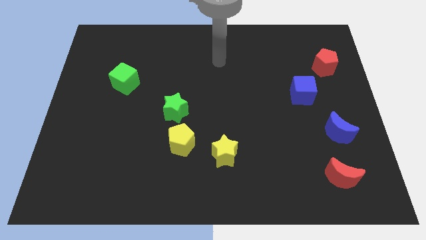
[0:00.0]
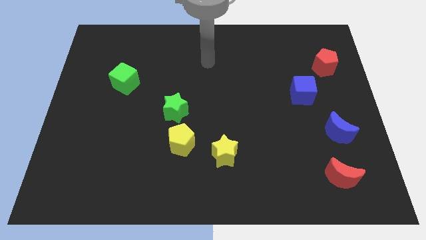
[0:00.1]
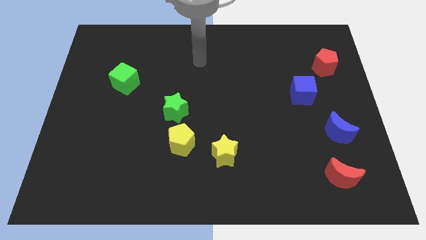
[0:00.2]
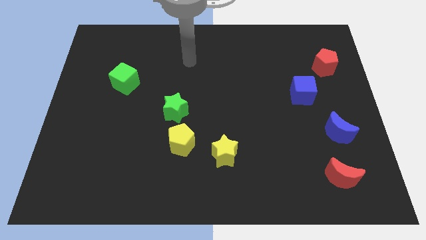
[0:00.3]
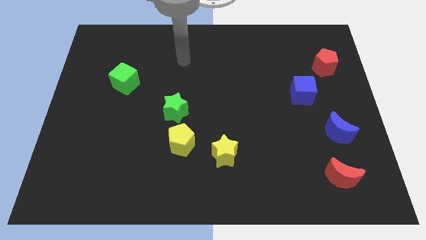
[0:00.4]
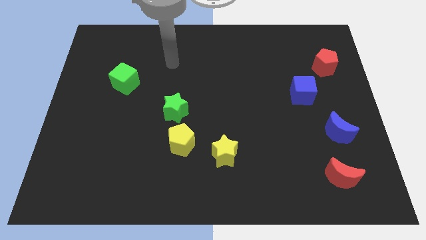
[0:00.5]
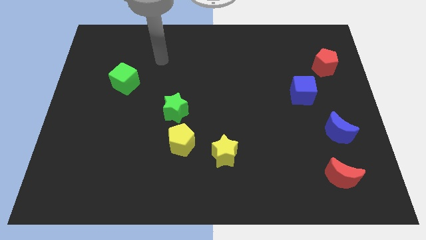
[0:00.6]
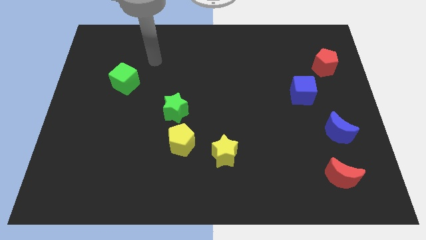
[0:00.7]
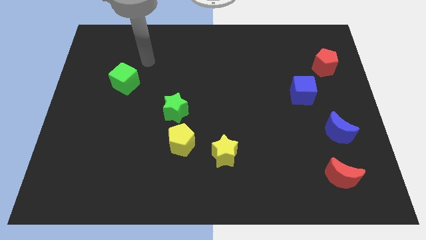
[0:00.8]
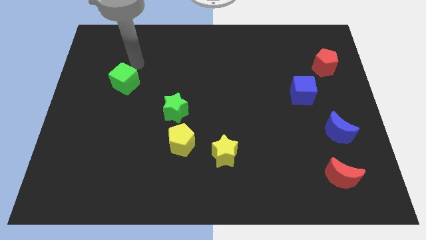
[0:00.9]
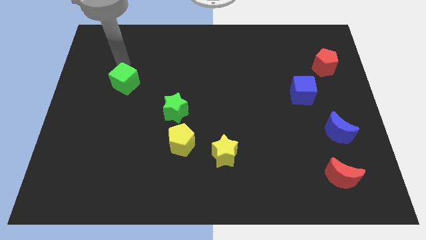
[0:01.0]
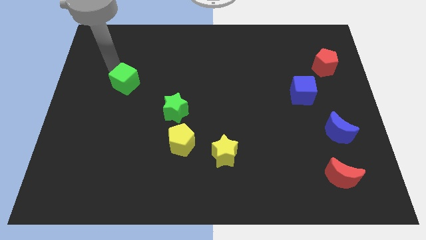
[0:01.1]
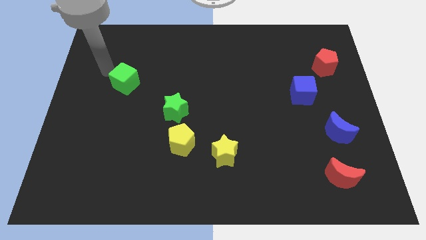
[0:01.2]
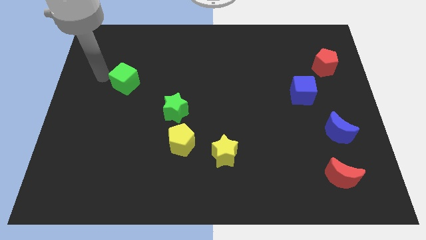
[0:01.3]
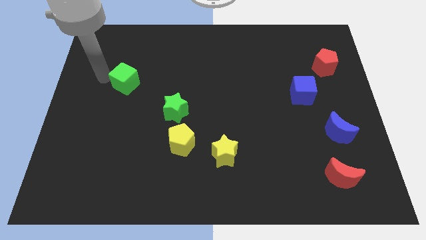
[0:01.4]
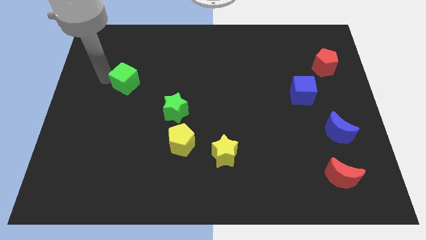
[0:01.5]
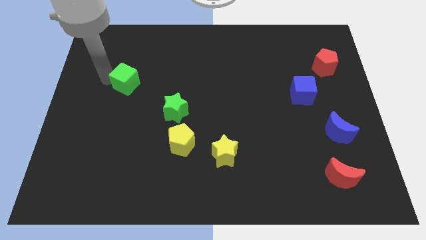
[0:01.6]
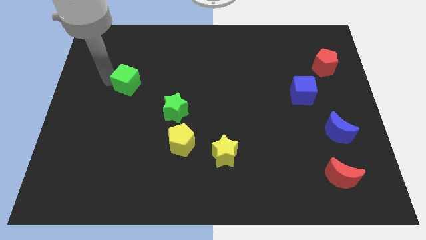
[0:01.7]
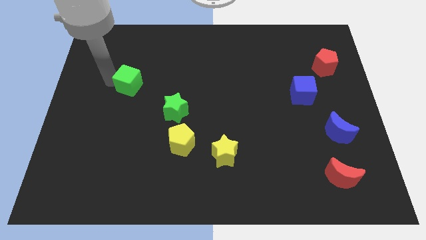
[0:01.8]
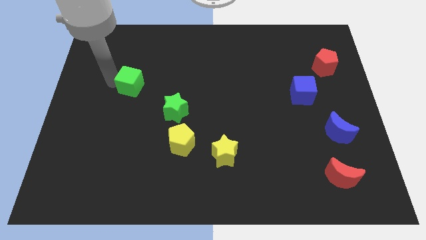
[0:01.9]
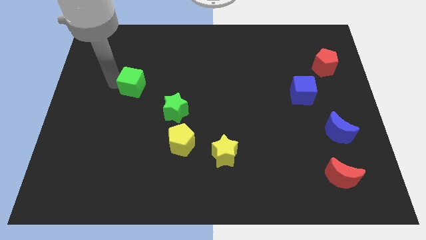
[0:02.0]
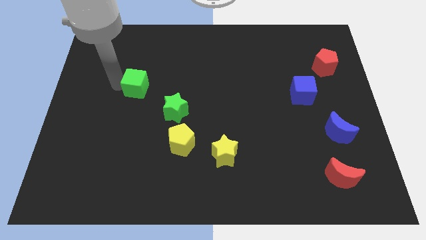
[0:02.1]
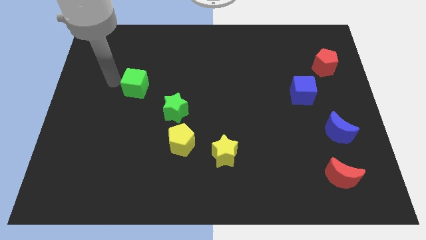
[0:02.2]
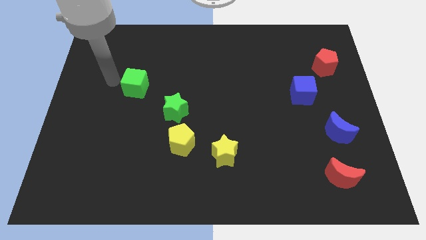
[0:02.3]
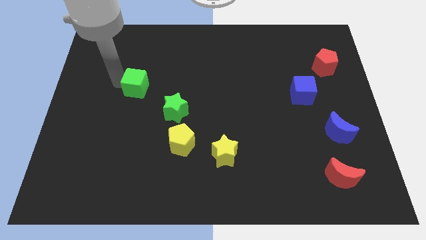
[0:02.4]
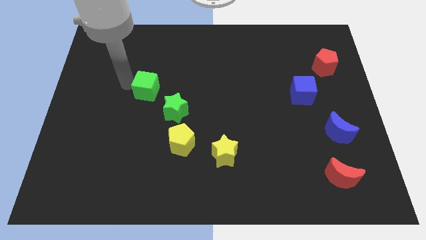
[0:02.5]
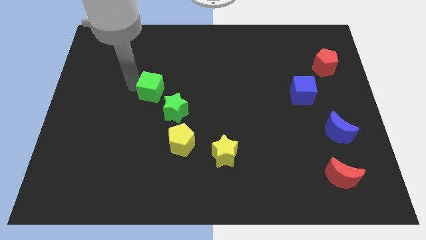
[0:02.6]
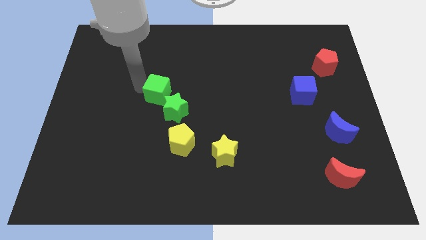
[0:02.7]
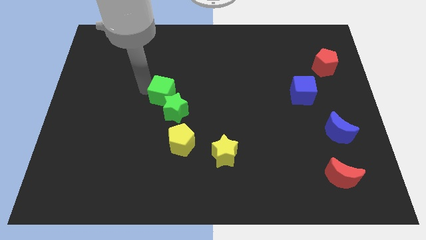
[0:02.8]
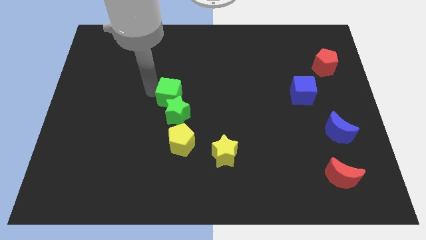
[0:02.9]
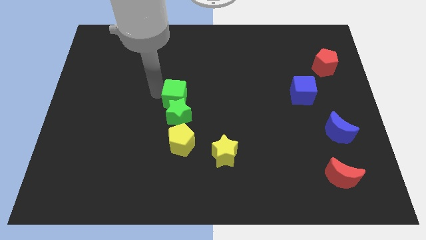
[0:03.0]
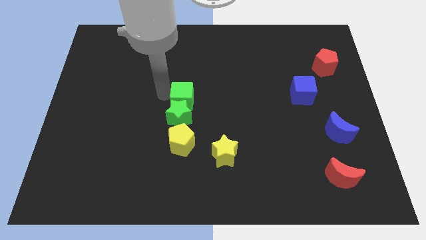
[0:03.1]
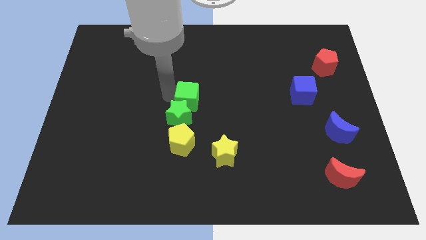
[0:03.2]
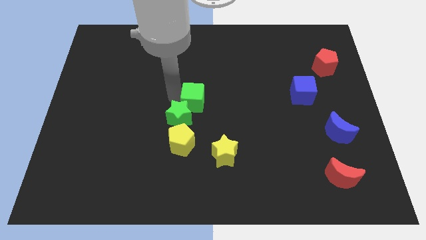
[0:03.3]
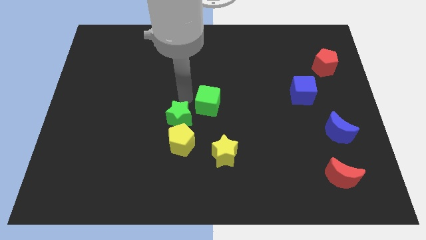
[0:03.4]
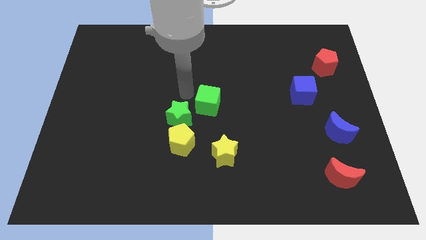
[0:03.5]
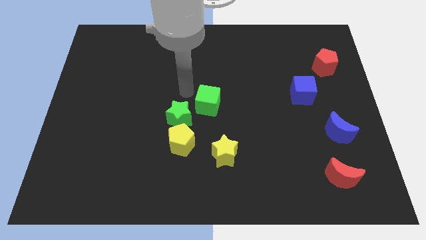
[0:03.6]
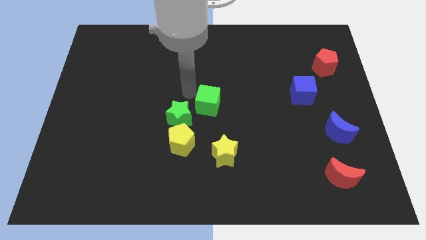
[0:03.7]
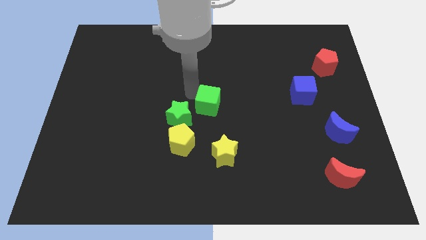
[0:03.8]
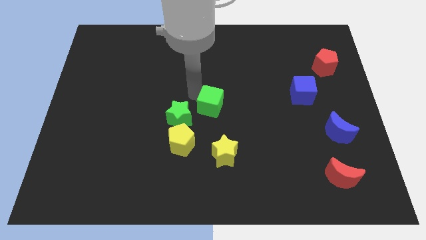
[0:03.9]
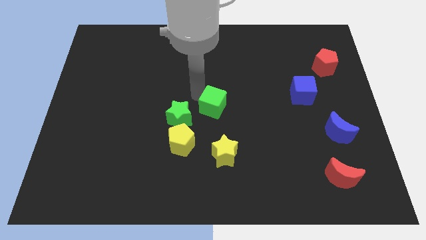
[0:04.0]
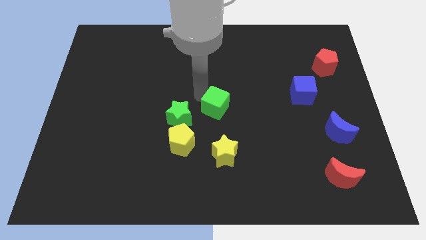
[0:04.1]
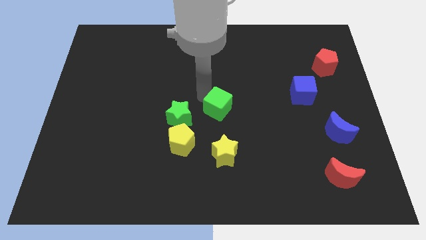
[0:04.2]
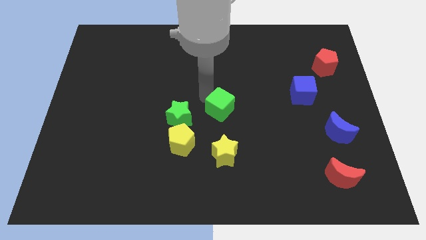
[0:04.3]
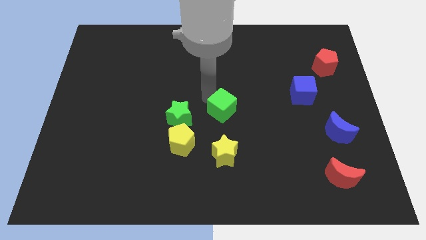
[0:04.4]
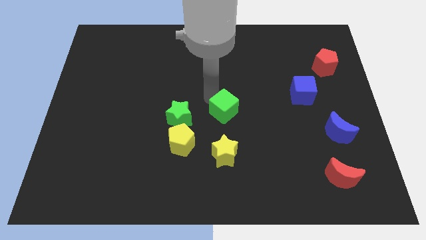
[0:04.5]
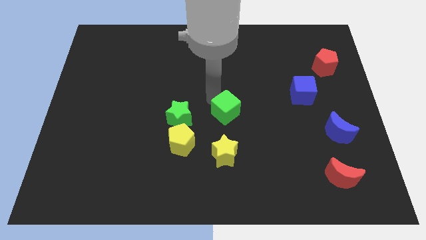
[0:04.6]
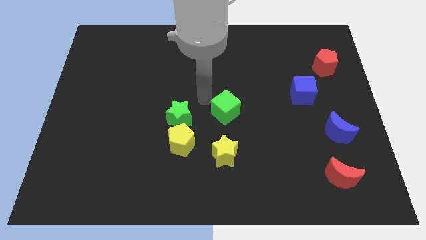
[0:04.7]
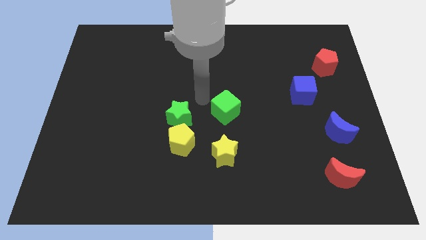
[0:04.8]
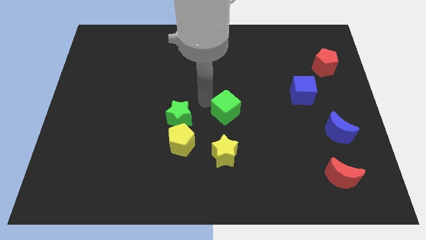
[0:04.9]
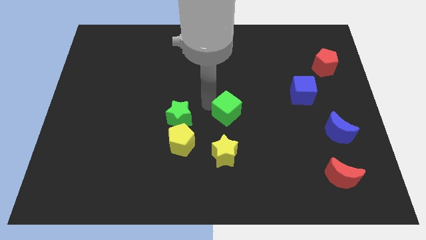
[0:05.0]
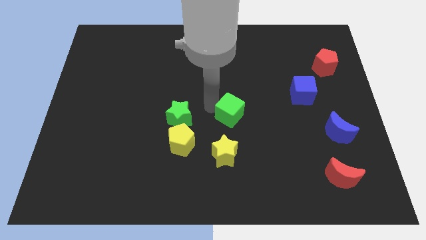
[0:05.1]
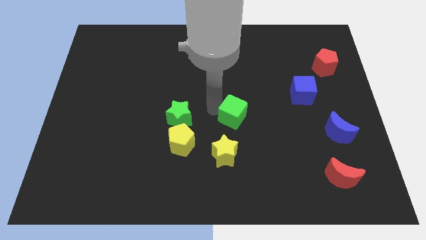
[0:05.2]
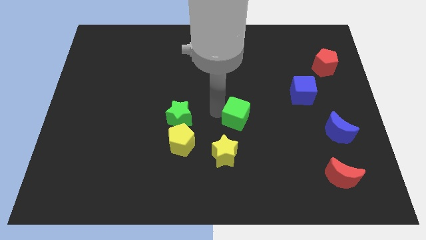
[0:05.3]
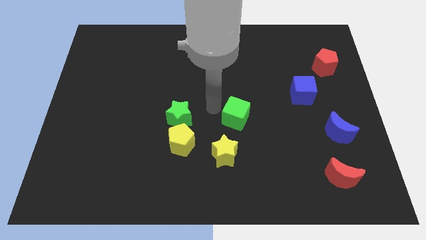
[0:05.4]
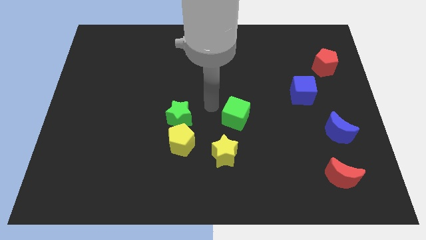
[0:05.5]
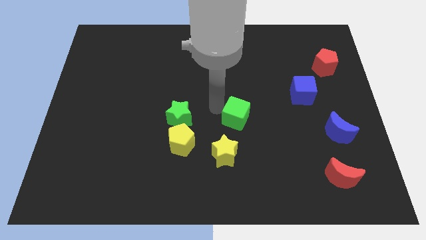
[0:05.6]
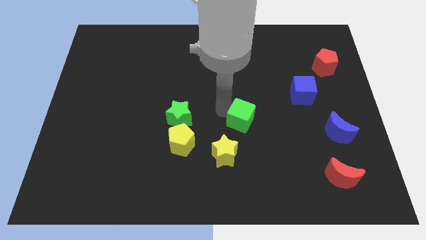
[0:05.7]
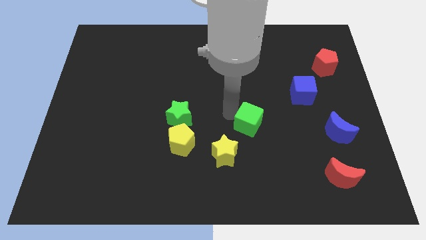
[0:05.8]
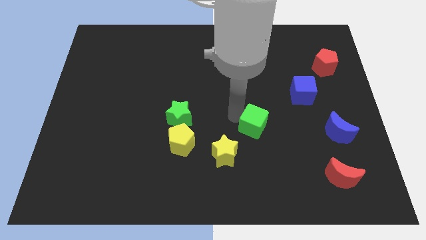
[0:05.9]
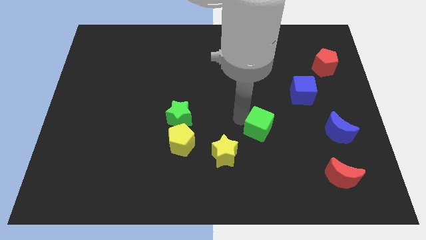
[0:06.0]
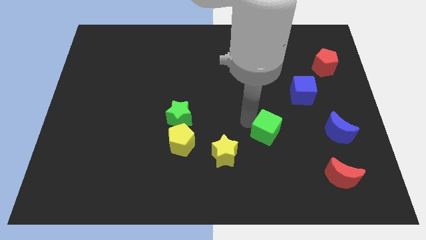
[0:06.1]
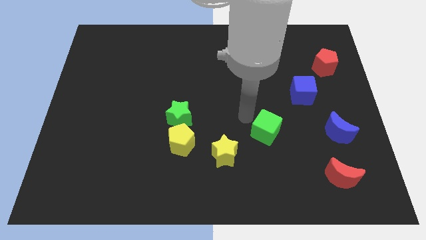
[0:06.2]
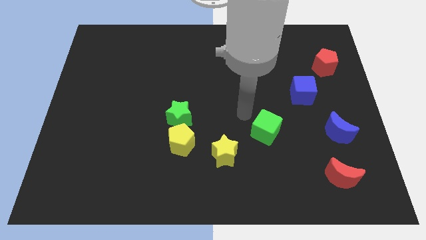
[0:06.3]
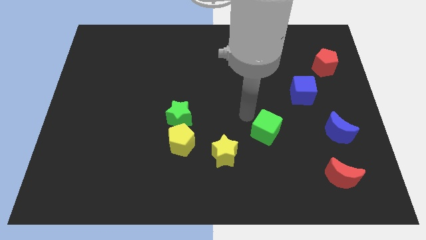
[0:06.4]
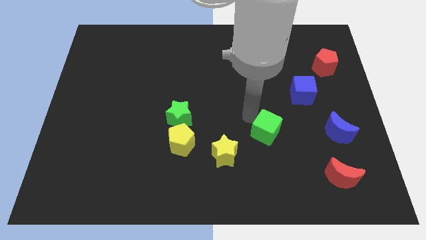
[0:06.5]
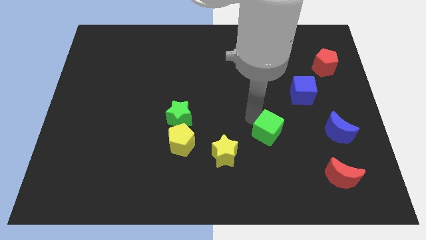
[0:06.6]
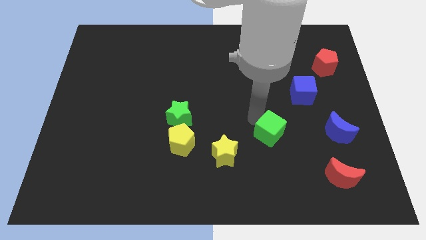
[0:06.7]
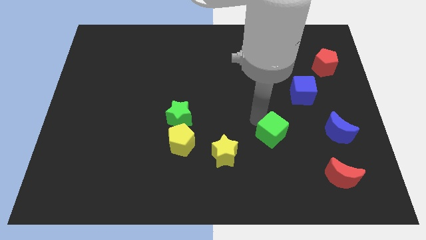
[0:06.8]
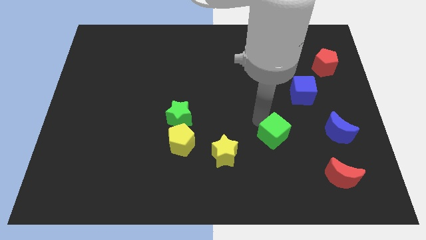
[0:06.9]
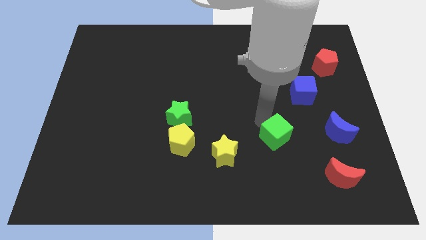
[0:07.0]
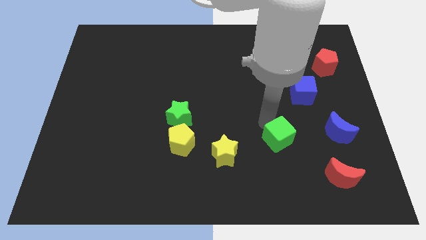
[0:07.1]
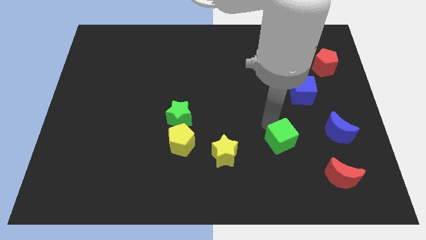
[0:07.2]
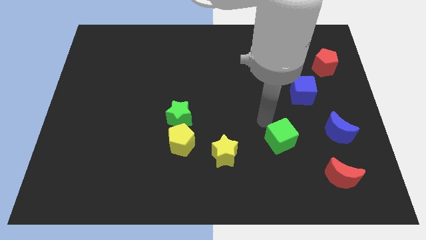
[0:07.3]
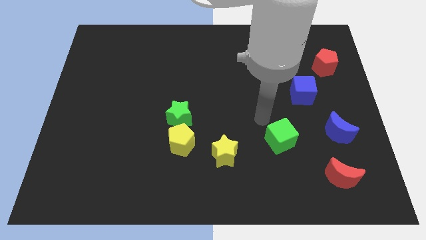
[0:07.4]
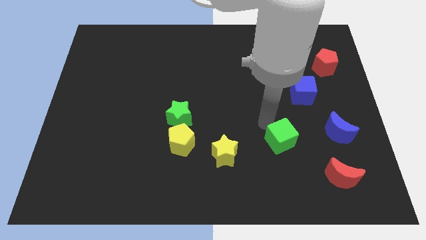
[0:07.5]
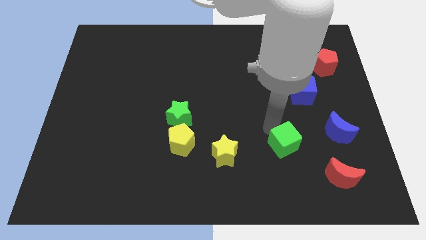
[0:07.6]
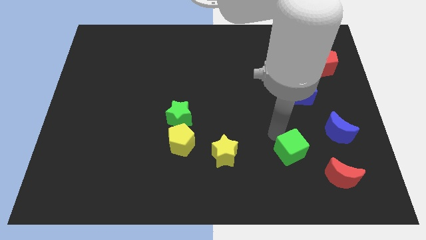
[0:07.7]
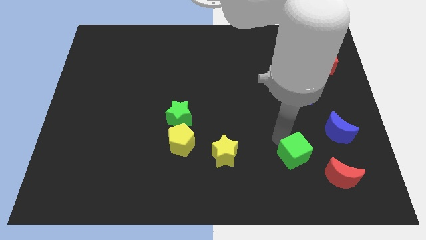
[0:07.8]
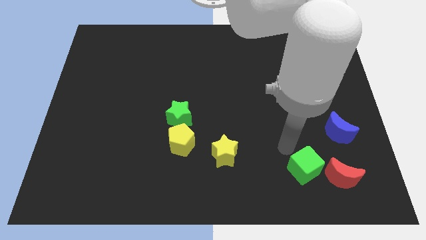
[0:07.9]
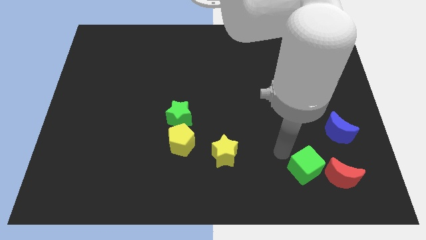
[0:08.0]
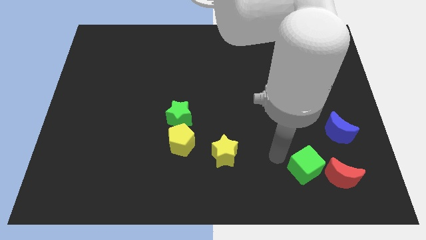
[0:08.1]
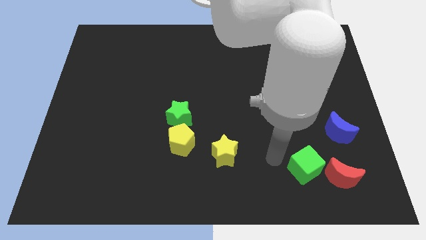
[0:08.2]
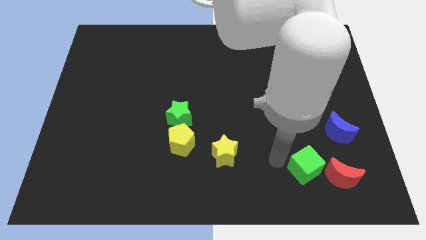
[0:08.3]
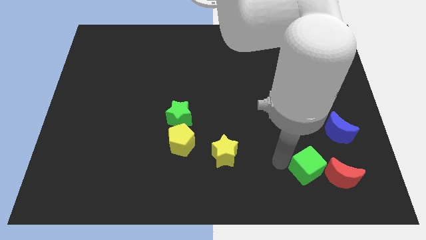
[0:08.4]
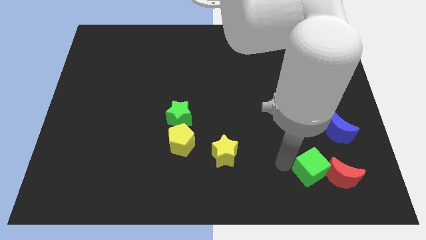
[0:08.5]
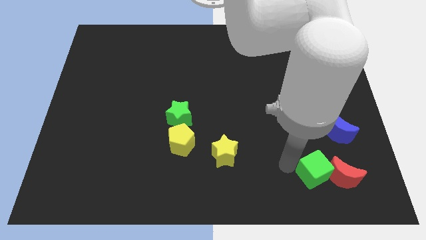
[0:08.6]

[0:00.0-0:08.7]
move the green cube next to the red moon
